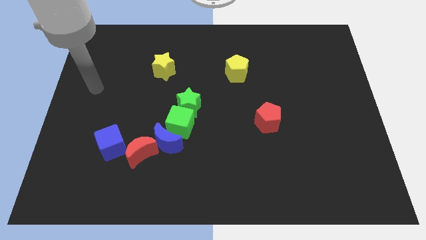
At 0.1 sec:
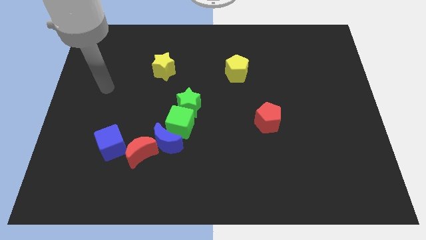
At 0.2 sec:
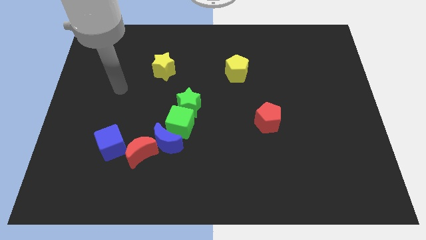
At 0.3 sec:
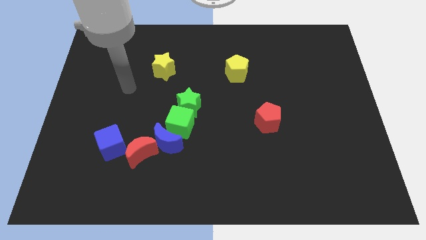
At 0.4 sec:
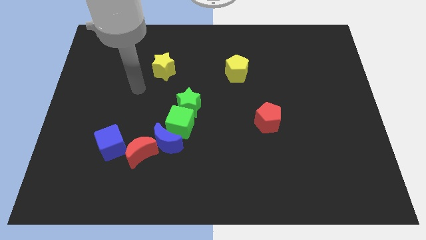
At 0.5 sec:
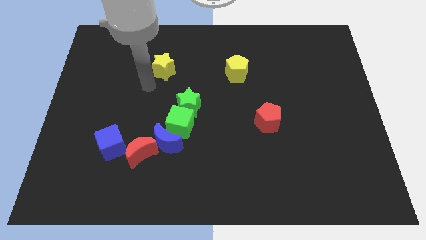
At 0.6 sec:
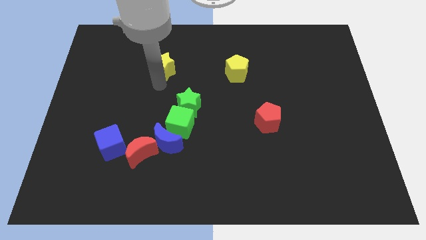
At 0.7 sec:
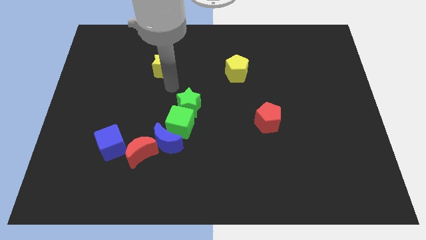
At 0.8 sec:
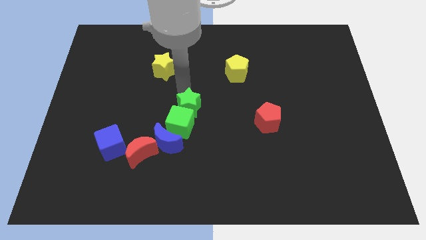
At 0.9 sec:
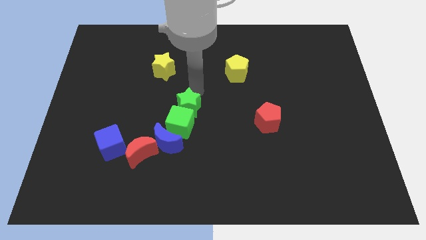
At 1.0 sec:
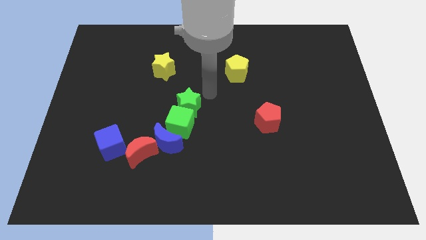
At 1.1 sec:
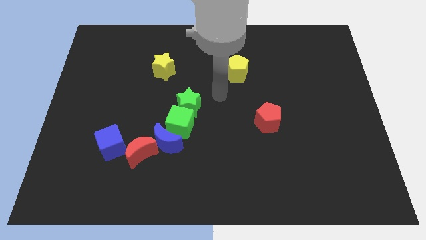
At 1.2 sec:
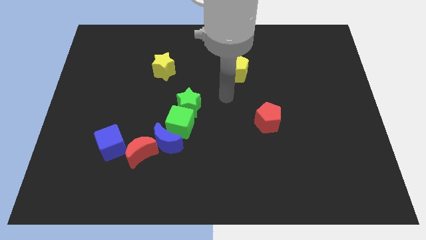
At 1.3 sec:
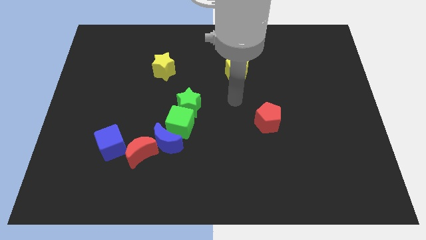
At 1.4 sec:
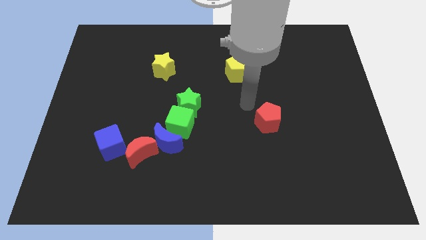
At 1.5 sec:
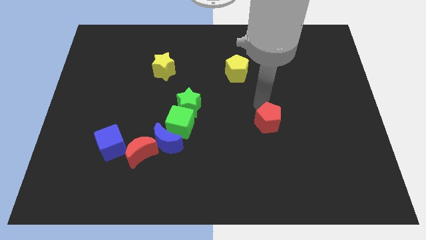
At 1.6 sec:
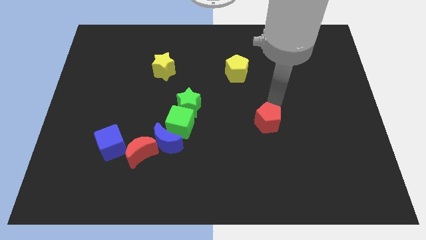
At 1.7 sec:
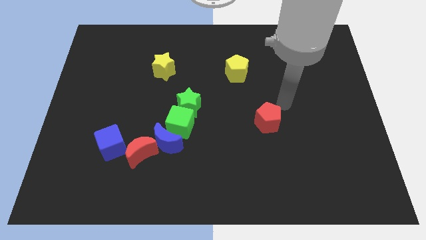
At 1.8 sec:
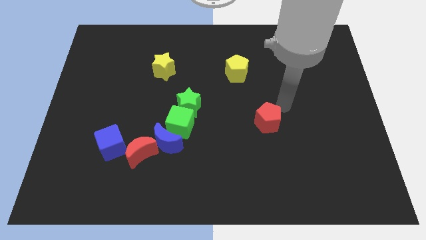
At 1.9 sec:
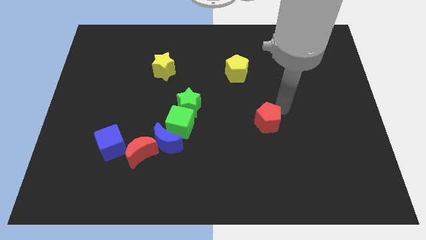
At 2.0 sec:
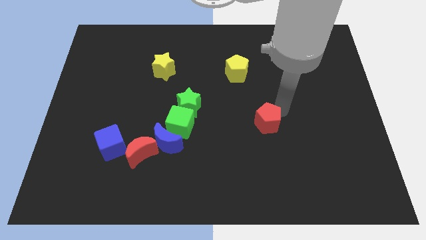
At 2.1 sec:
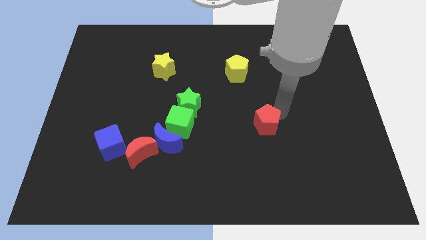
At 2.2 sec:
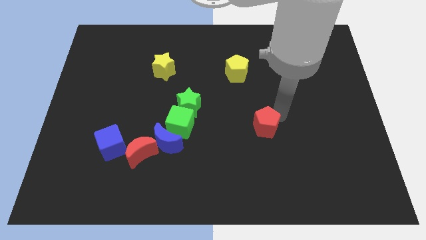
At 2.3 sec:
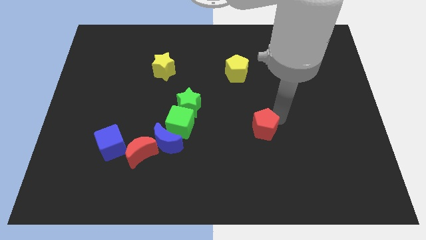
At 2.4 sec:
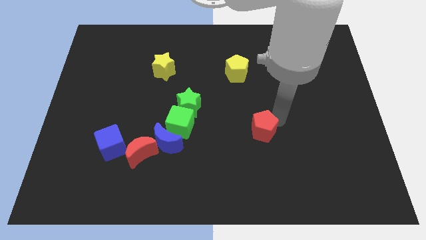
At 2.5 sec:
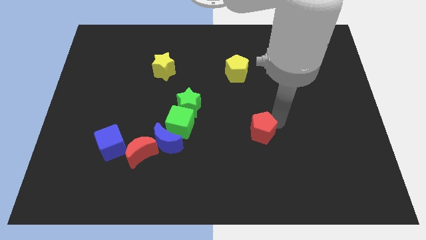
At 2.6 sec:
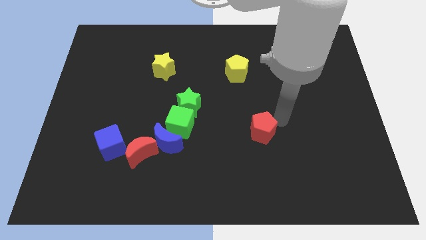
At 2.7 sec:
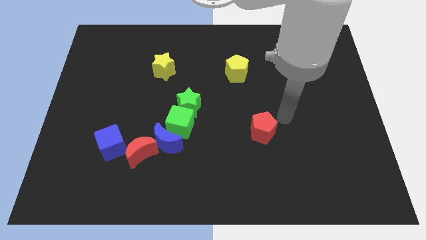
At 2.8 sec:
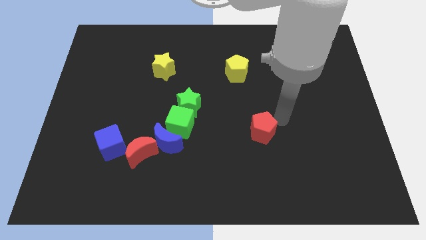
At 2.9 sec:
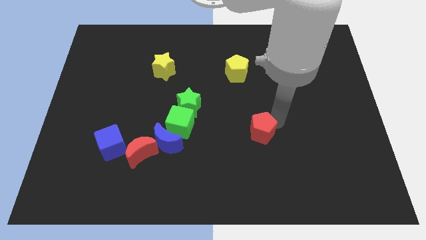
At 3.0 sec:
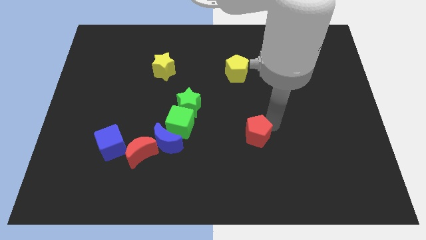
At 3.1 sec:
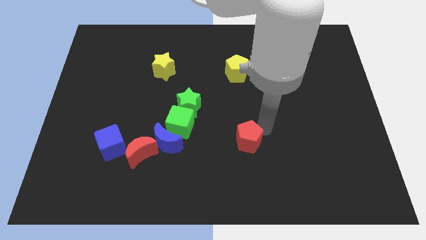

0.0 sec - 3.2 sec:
move the red pentagon a bit diagonally downwards and left

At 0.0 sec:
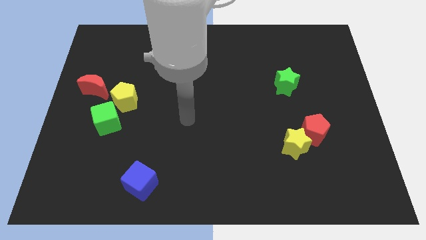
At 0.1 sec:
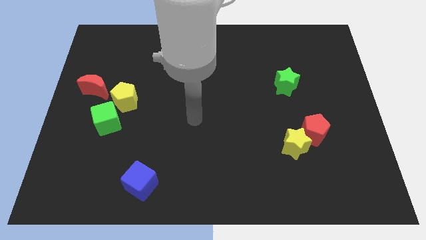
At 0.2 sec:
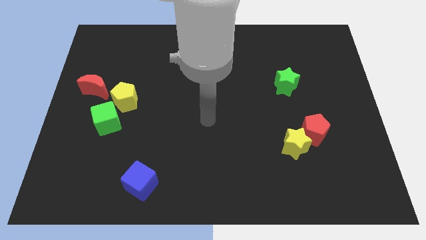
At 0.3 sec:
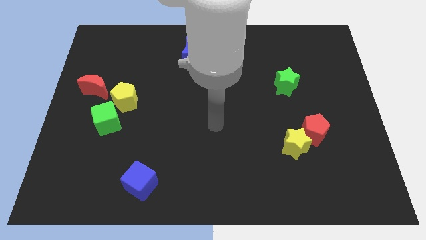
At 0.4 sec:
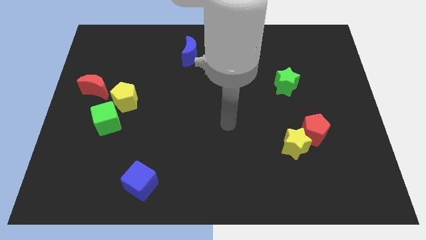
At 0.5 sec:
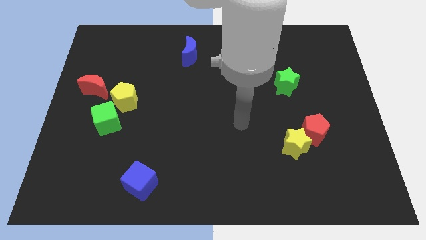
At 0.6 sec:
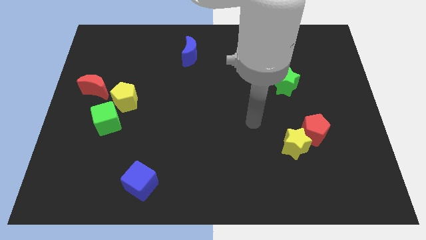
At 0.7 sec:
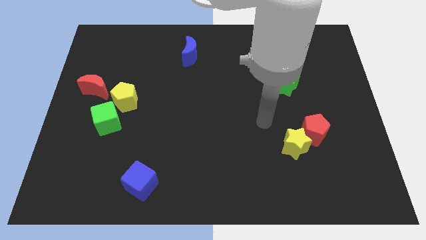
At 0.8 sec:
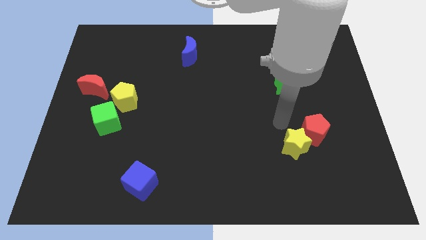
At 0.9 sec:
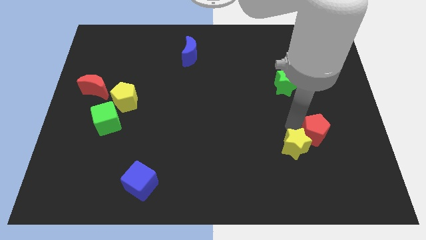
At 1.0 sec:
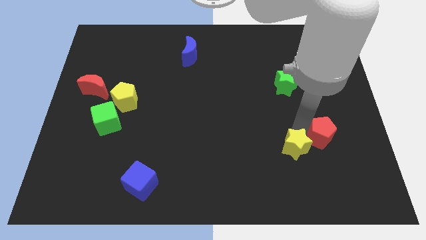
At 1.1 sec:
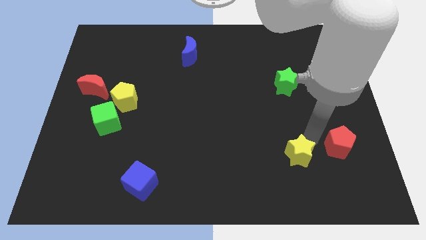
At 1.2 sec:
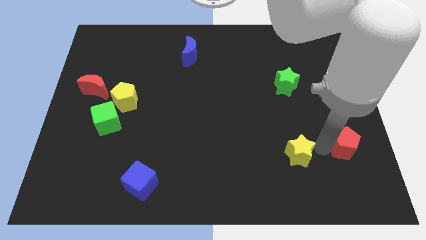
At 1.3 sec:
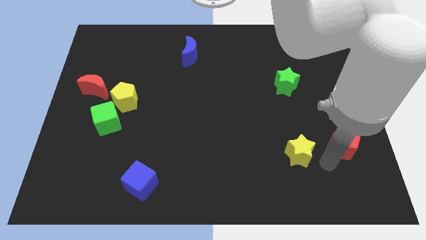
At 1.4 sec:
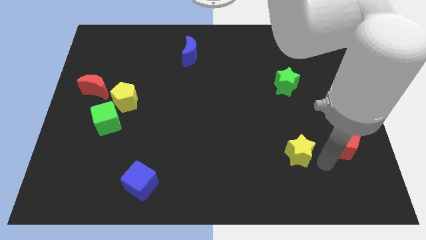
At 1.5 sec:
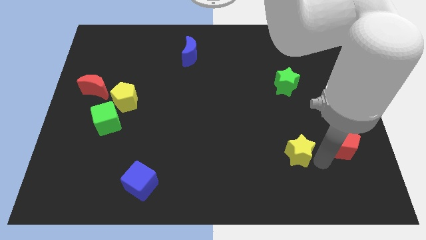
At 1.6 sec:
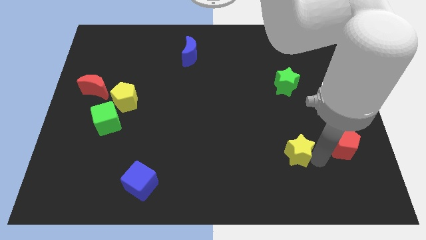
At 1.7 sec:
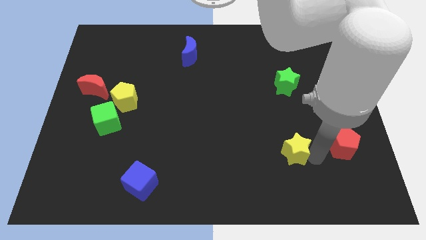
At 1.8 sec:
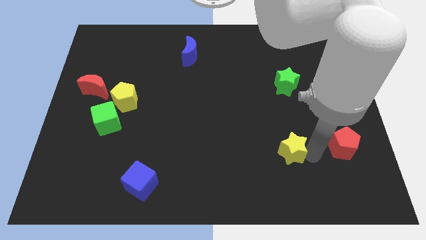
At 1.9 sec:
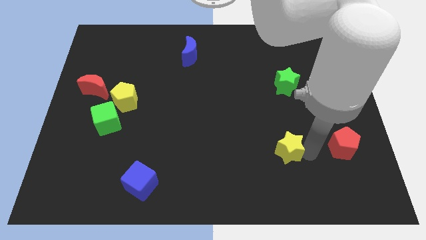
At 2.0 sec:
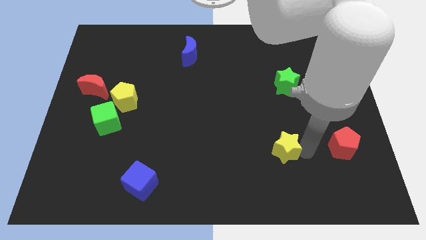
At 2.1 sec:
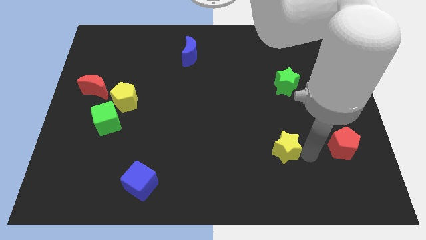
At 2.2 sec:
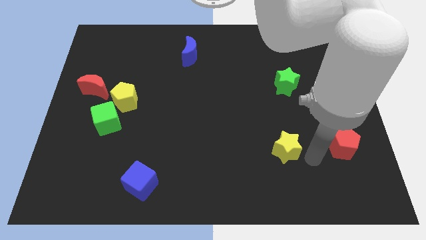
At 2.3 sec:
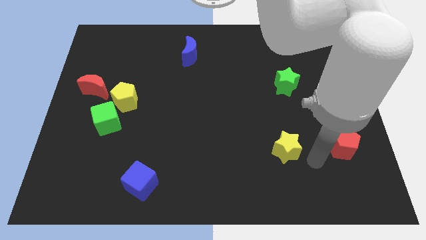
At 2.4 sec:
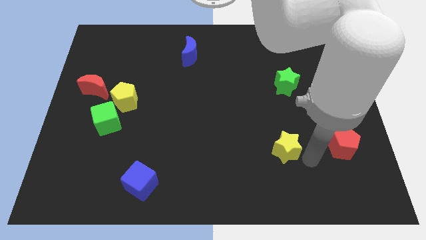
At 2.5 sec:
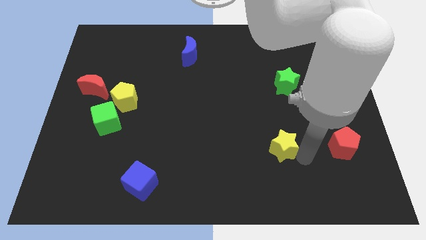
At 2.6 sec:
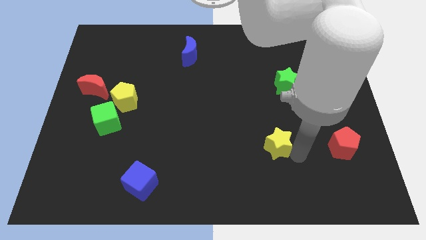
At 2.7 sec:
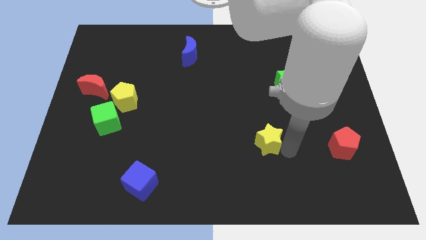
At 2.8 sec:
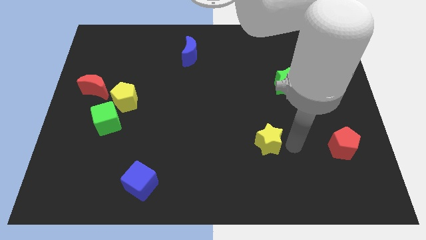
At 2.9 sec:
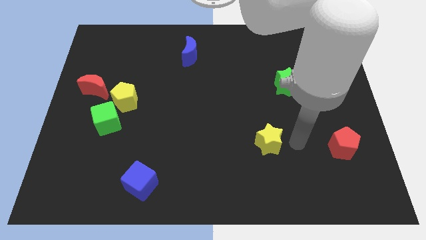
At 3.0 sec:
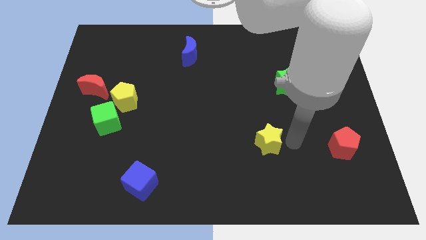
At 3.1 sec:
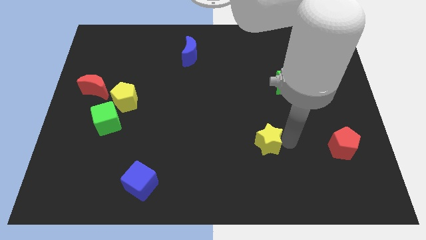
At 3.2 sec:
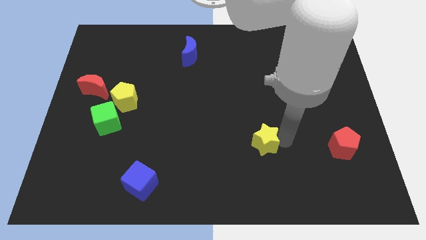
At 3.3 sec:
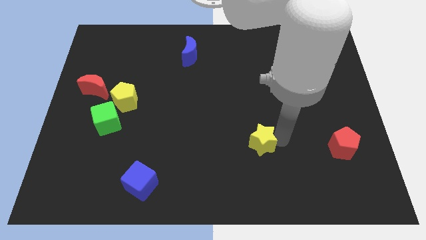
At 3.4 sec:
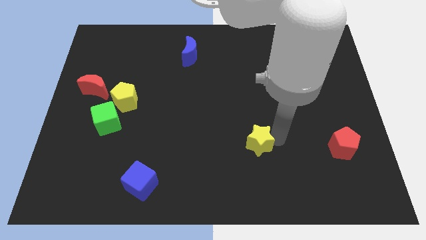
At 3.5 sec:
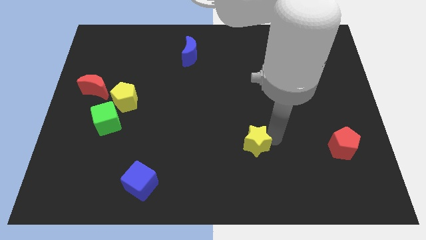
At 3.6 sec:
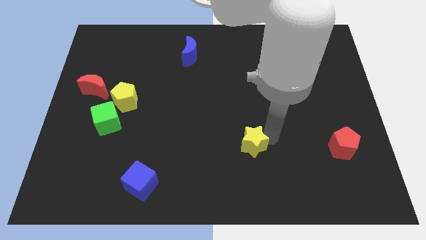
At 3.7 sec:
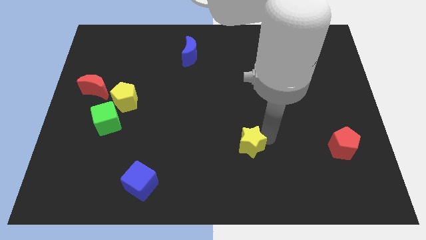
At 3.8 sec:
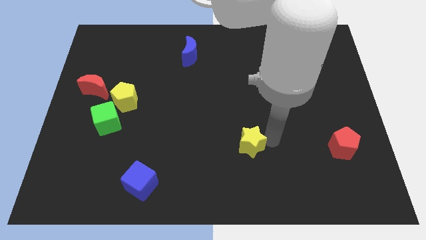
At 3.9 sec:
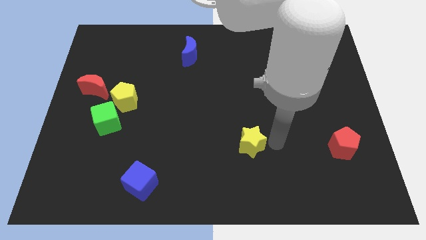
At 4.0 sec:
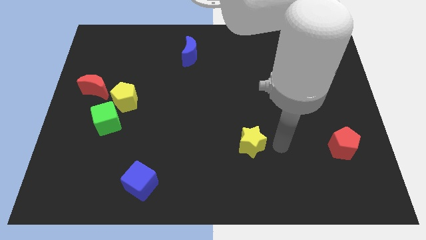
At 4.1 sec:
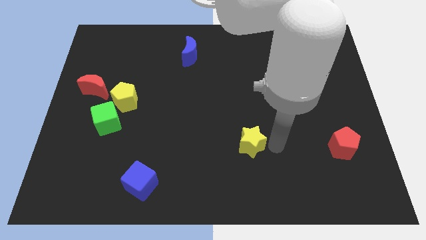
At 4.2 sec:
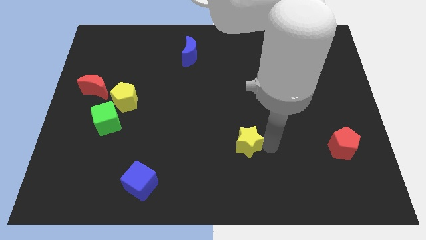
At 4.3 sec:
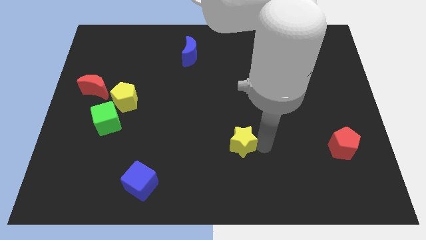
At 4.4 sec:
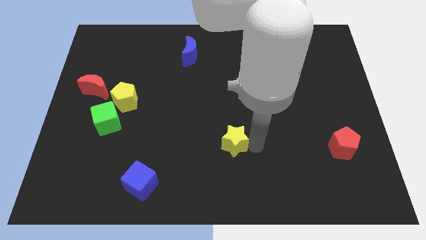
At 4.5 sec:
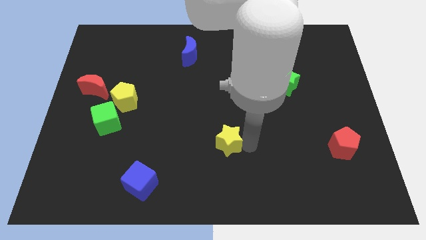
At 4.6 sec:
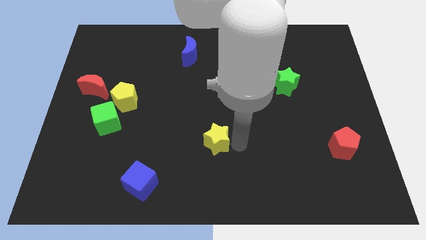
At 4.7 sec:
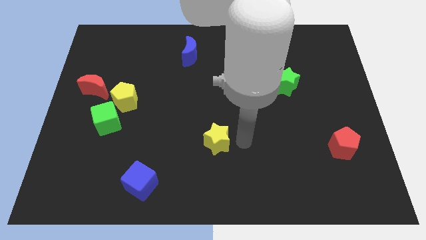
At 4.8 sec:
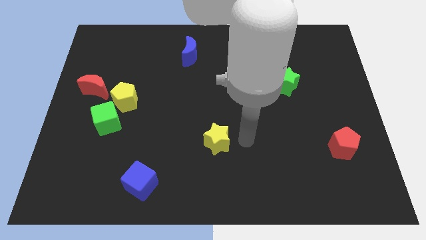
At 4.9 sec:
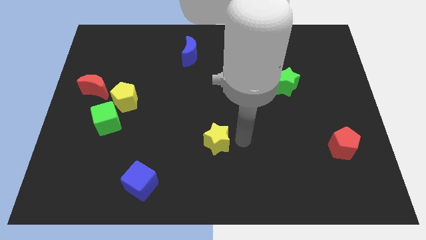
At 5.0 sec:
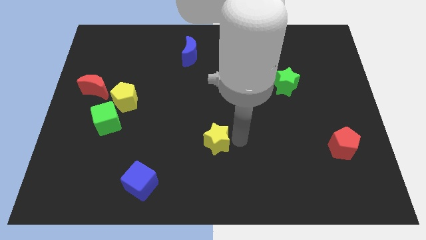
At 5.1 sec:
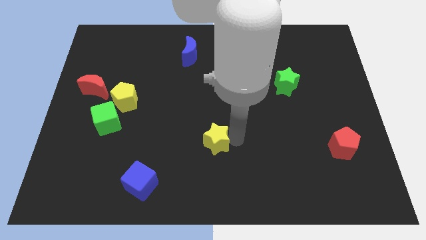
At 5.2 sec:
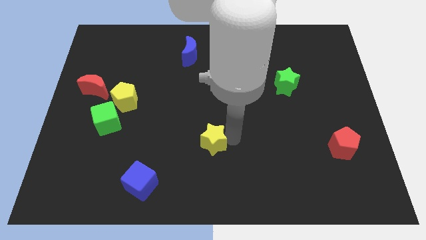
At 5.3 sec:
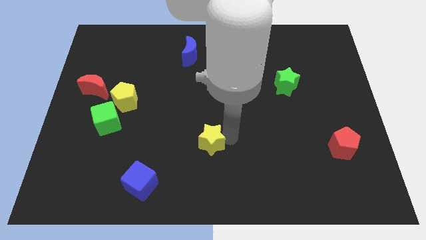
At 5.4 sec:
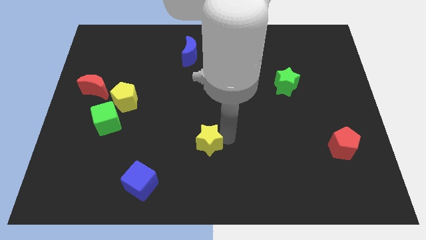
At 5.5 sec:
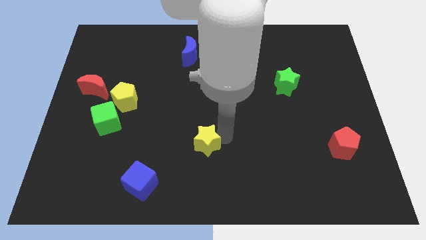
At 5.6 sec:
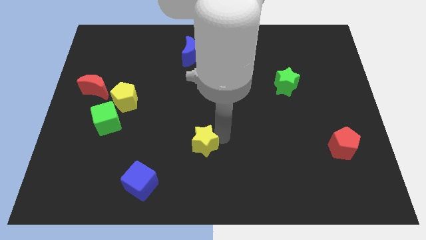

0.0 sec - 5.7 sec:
move the yellow star left
